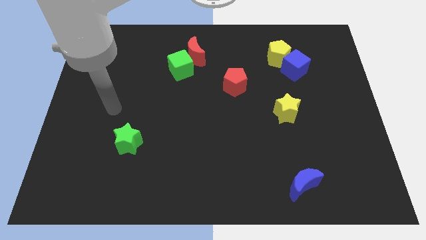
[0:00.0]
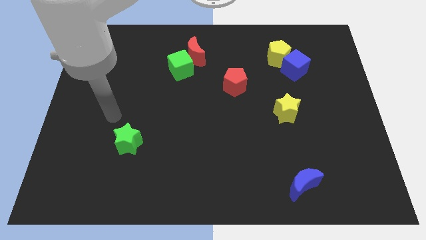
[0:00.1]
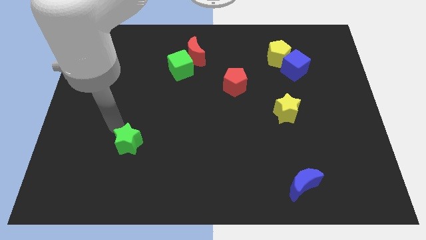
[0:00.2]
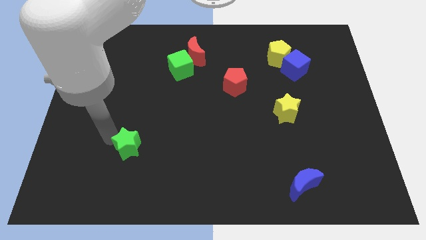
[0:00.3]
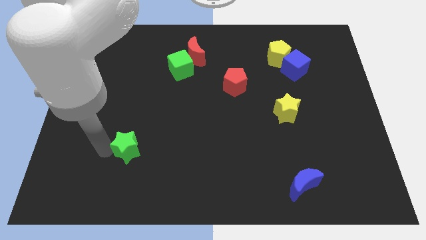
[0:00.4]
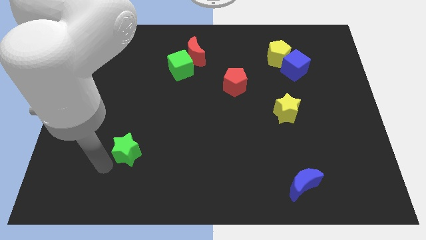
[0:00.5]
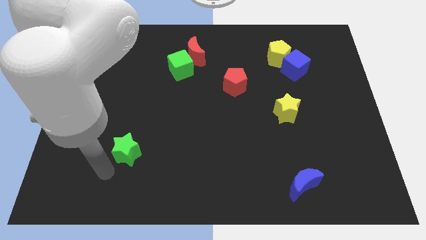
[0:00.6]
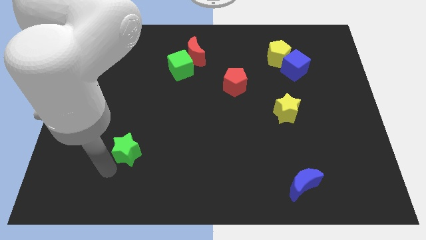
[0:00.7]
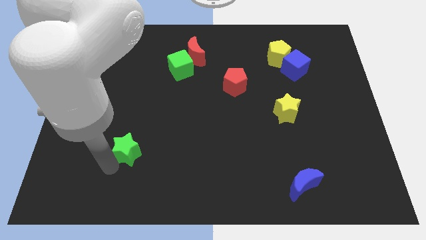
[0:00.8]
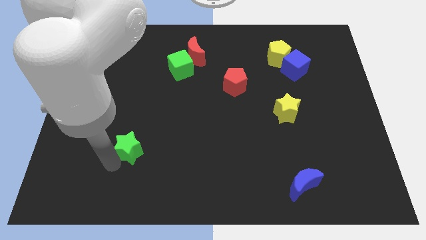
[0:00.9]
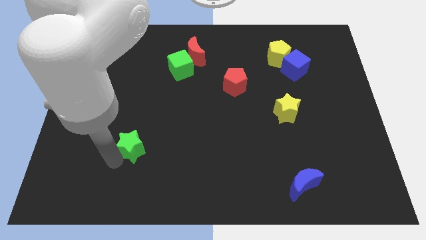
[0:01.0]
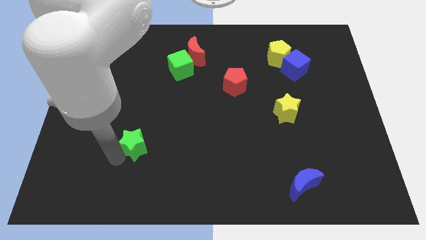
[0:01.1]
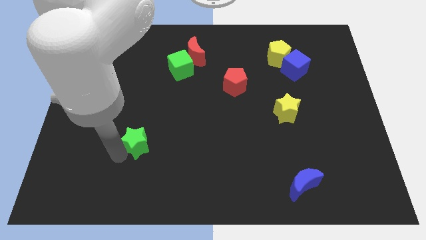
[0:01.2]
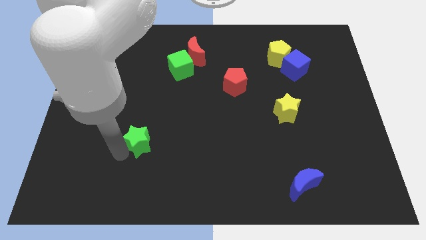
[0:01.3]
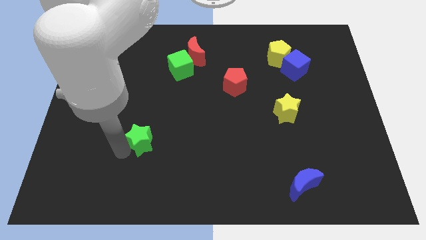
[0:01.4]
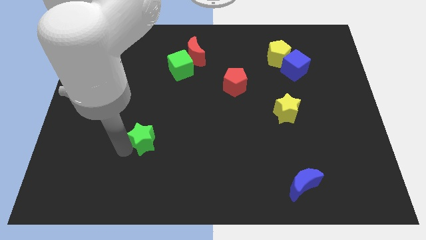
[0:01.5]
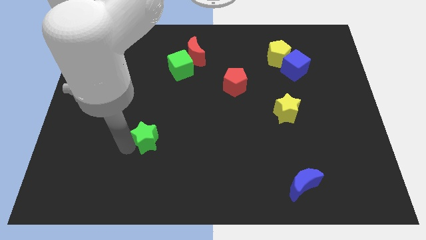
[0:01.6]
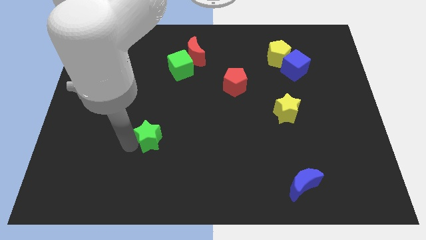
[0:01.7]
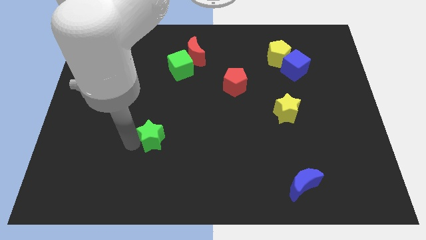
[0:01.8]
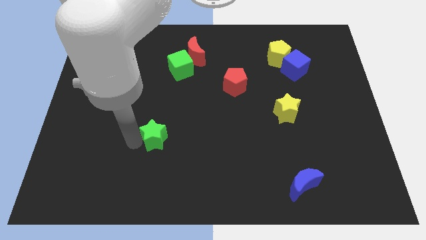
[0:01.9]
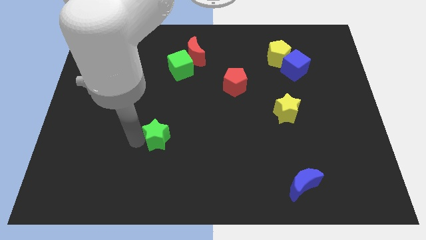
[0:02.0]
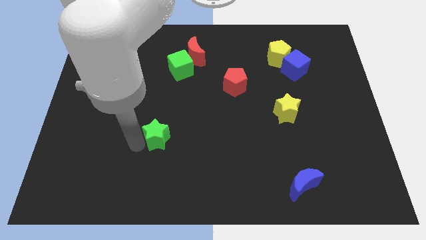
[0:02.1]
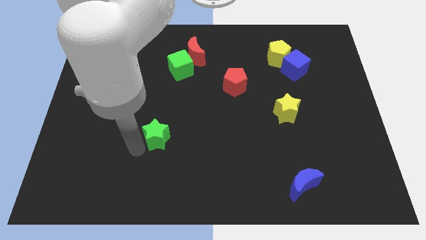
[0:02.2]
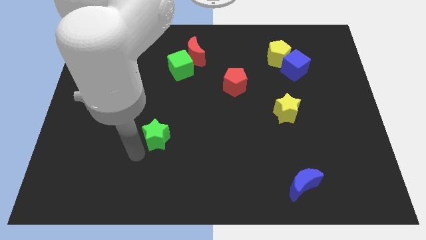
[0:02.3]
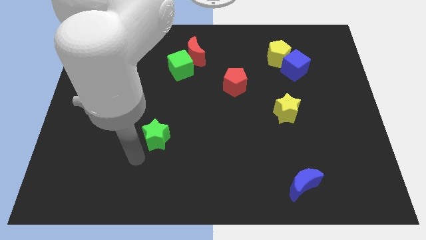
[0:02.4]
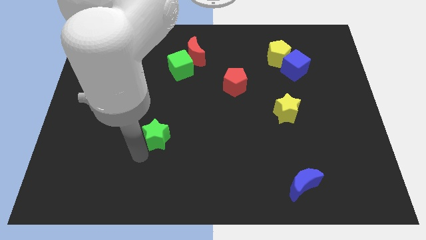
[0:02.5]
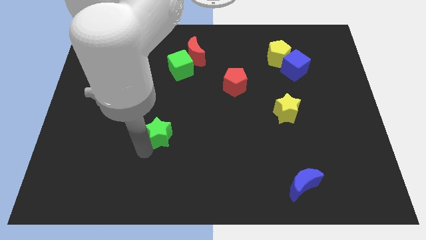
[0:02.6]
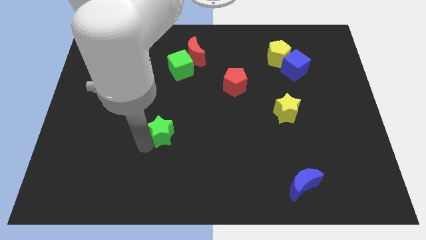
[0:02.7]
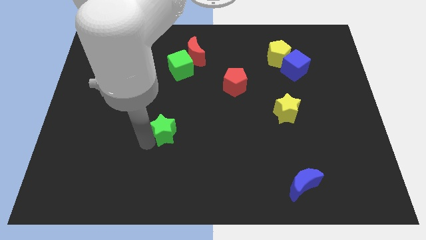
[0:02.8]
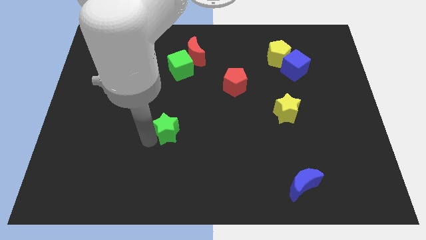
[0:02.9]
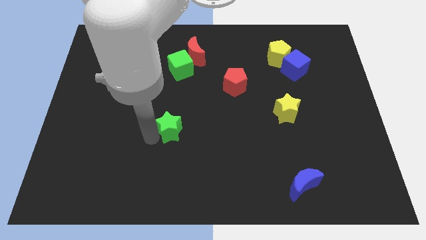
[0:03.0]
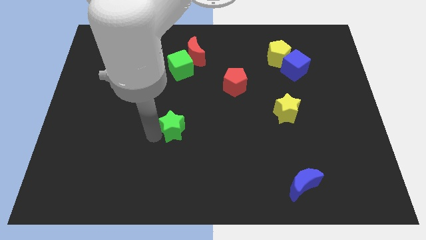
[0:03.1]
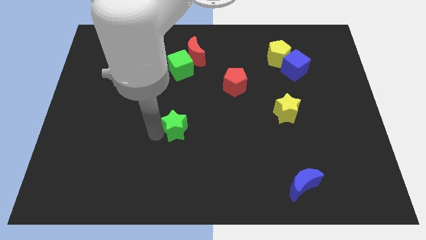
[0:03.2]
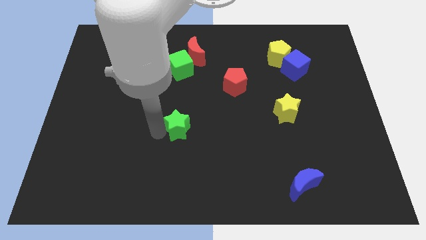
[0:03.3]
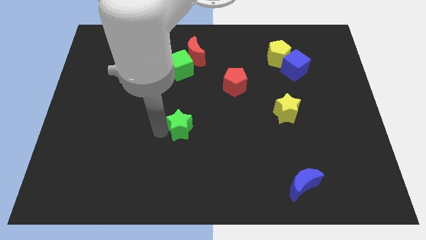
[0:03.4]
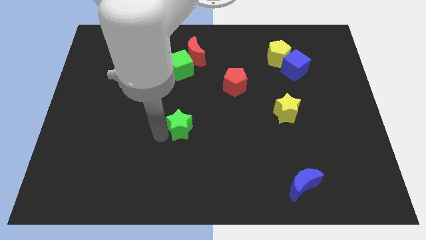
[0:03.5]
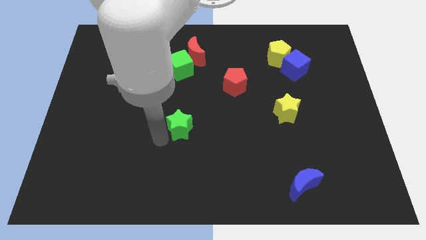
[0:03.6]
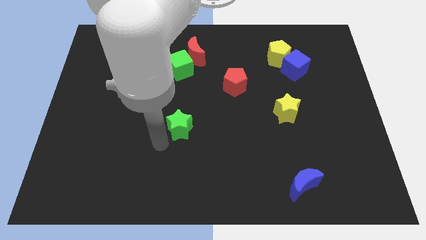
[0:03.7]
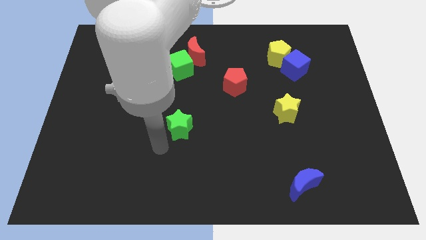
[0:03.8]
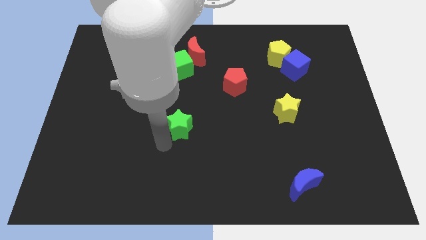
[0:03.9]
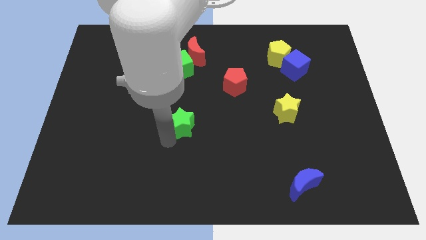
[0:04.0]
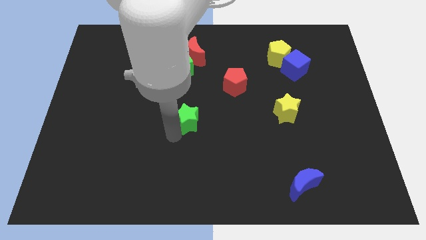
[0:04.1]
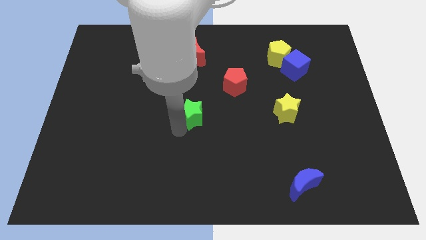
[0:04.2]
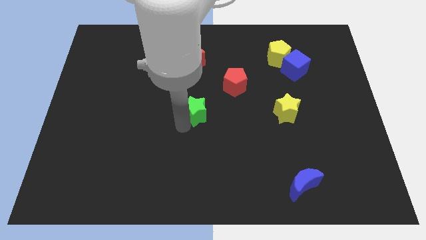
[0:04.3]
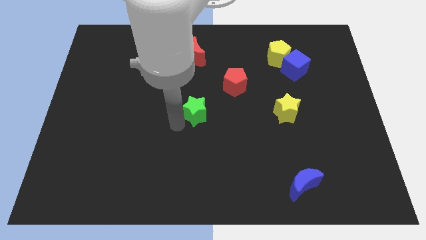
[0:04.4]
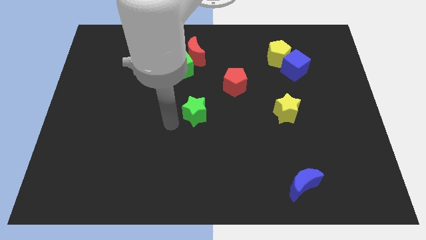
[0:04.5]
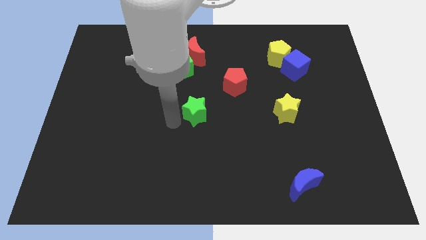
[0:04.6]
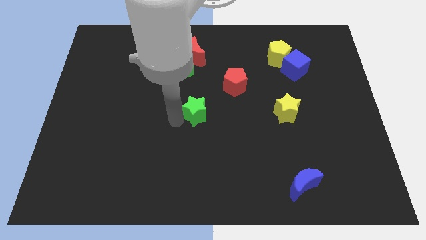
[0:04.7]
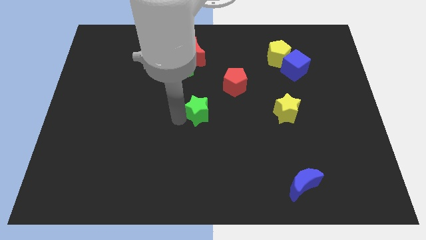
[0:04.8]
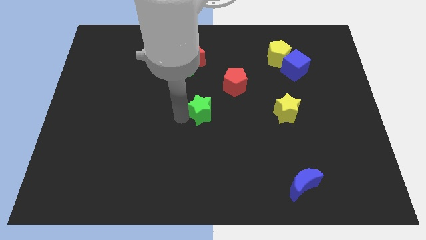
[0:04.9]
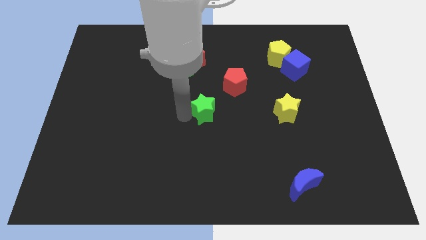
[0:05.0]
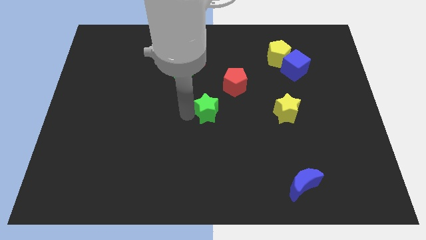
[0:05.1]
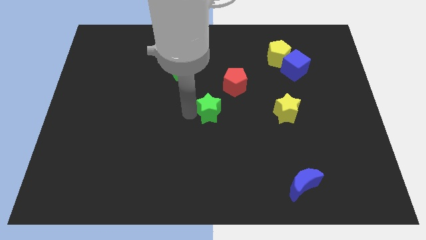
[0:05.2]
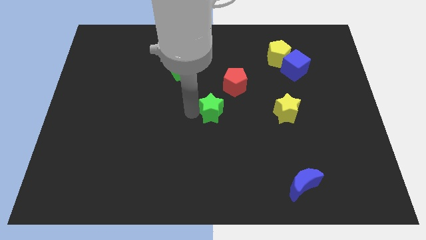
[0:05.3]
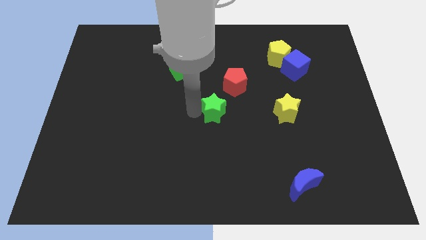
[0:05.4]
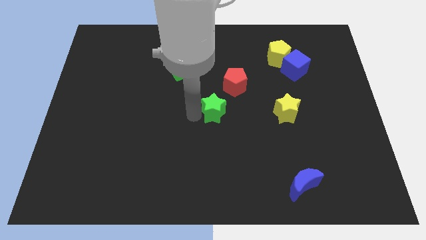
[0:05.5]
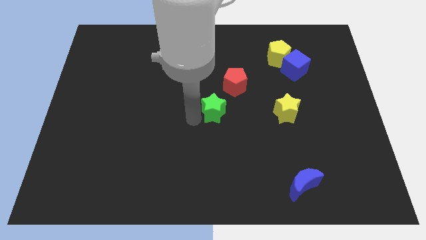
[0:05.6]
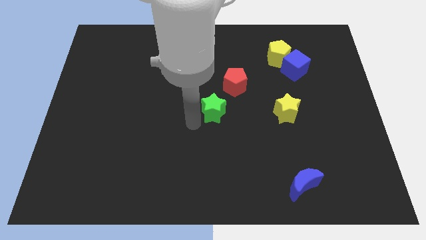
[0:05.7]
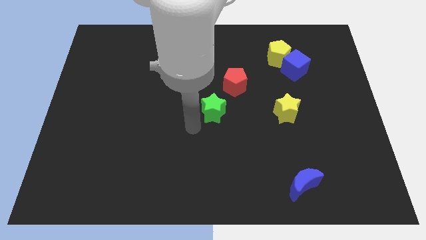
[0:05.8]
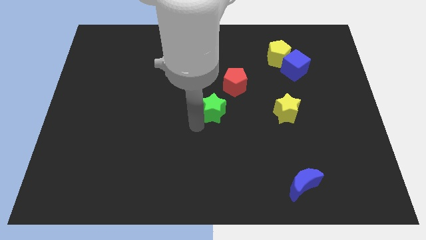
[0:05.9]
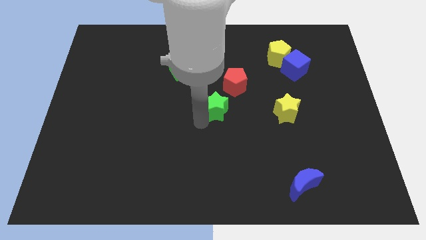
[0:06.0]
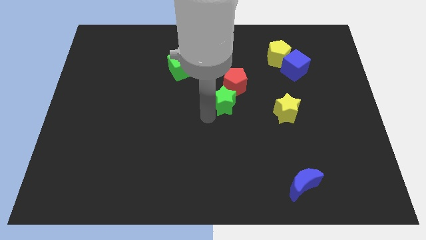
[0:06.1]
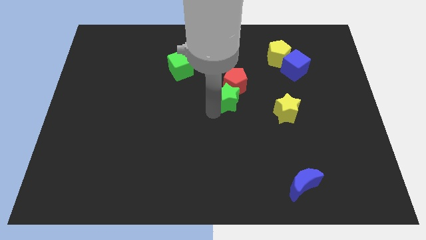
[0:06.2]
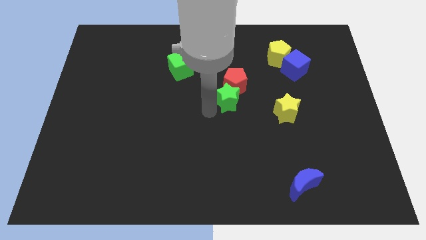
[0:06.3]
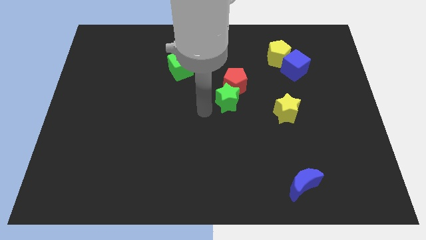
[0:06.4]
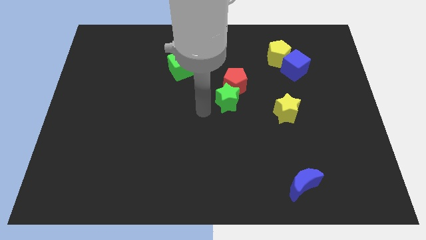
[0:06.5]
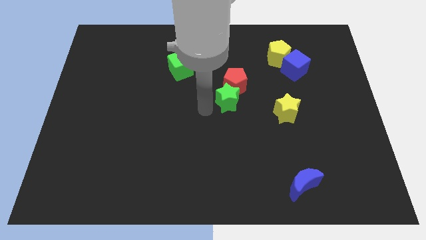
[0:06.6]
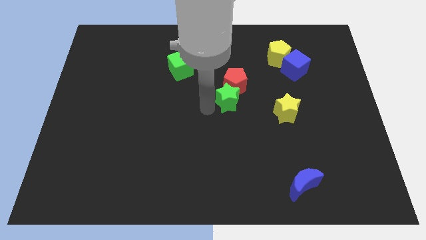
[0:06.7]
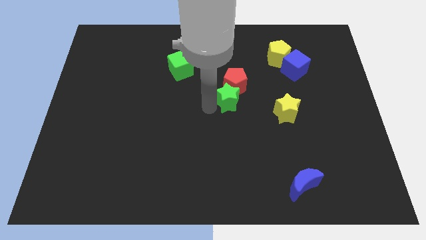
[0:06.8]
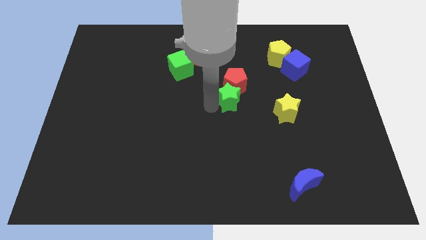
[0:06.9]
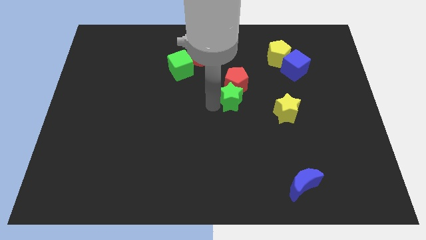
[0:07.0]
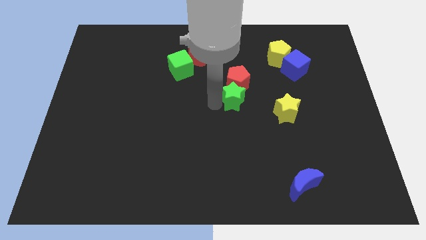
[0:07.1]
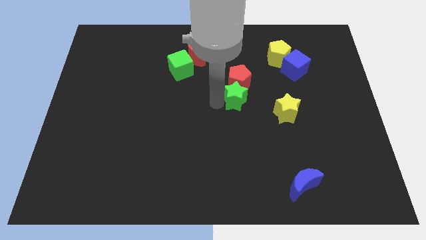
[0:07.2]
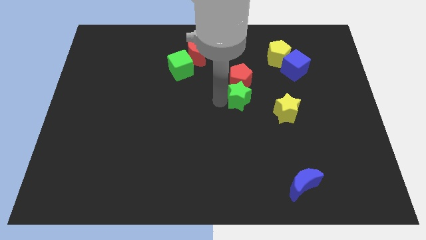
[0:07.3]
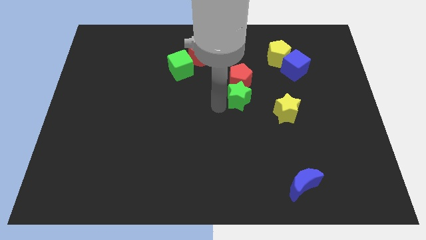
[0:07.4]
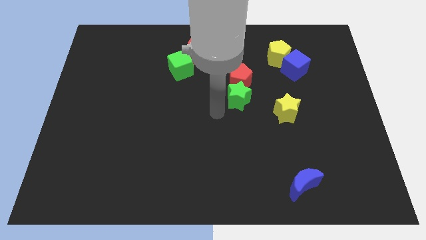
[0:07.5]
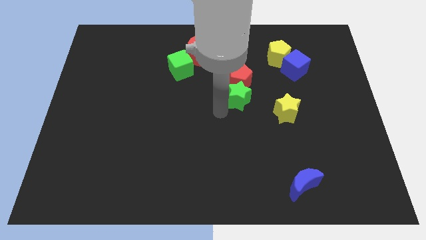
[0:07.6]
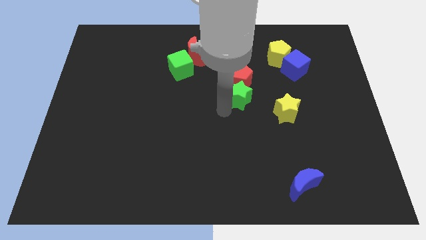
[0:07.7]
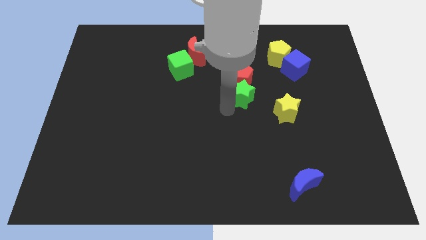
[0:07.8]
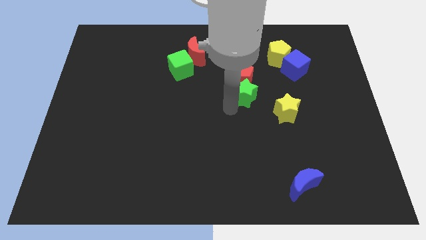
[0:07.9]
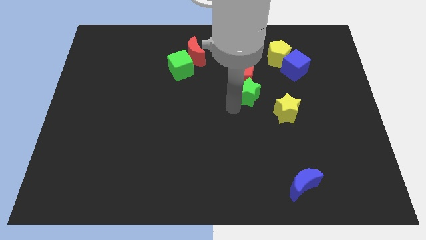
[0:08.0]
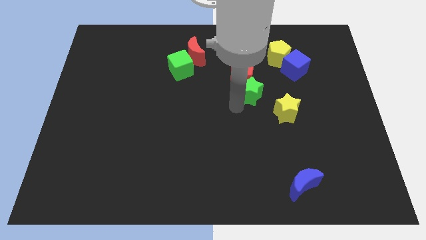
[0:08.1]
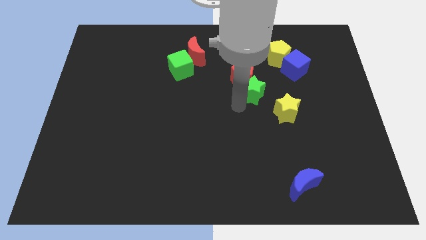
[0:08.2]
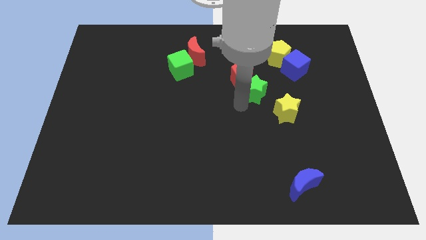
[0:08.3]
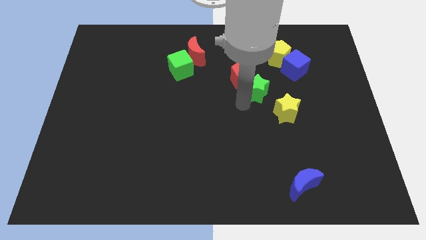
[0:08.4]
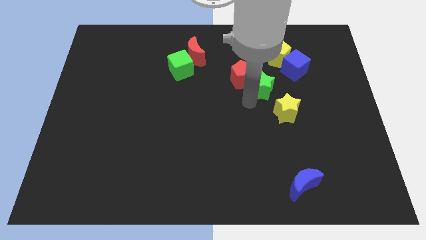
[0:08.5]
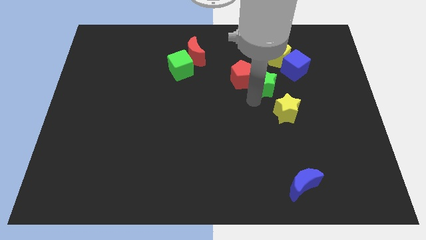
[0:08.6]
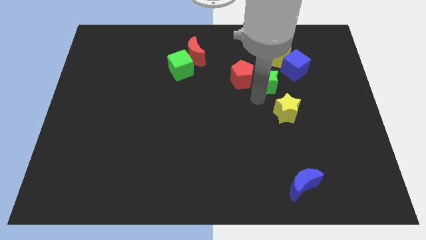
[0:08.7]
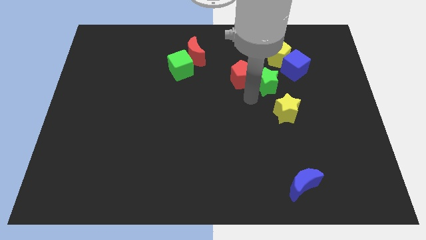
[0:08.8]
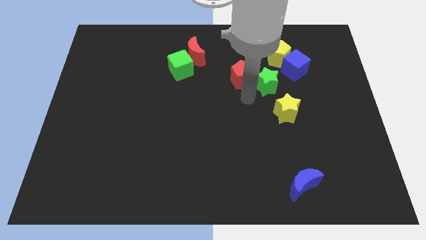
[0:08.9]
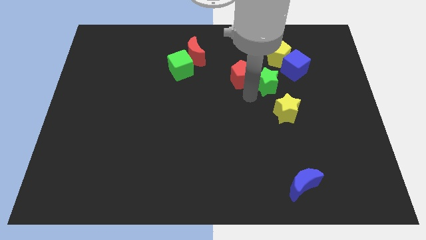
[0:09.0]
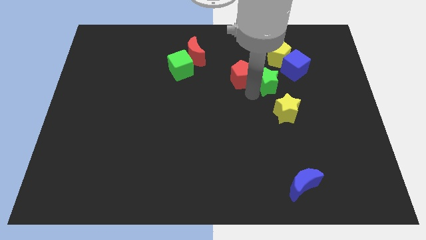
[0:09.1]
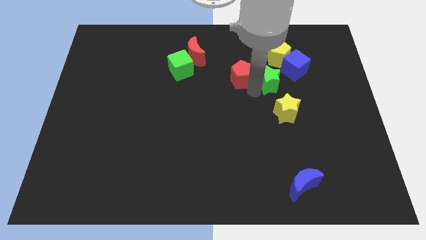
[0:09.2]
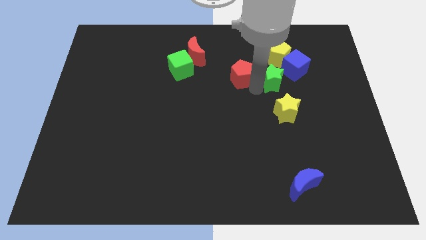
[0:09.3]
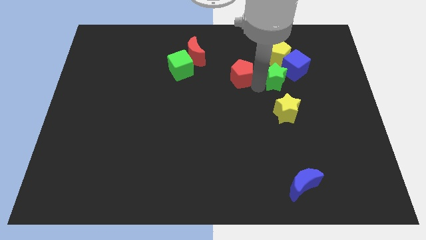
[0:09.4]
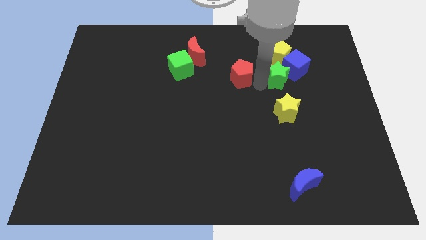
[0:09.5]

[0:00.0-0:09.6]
slide the green star next to the blue cube
